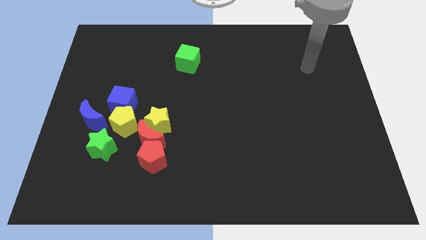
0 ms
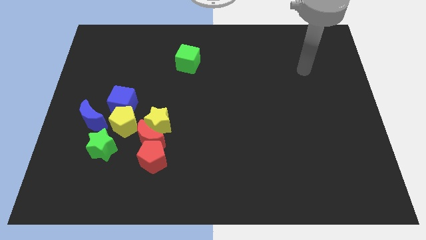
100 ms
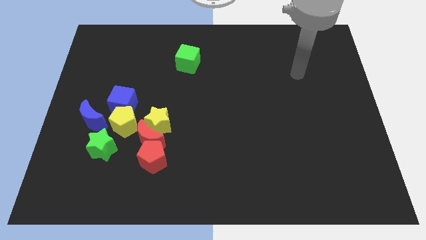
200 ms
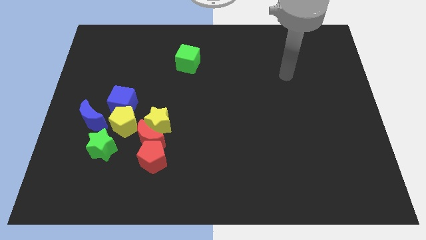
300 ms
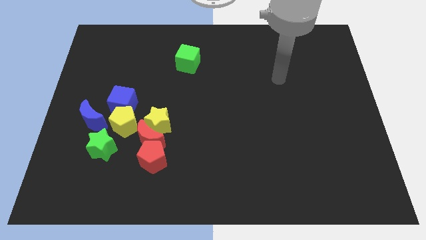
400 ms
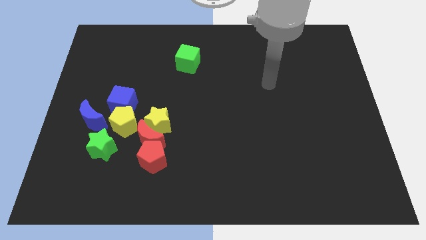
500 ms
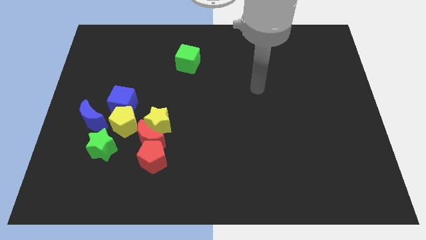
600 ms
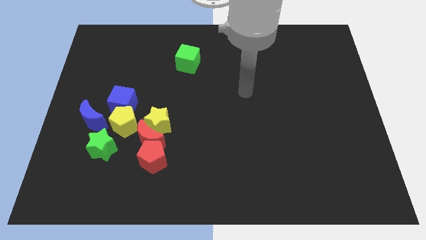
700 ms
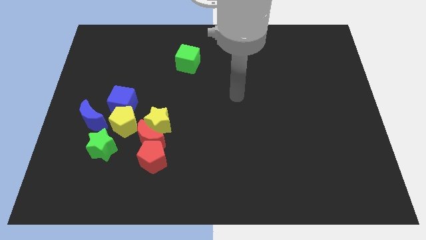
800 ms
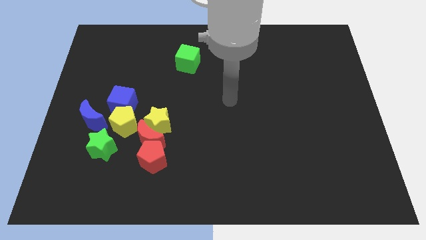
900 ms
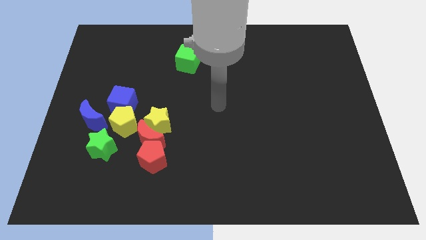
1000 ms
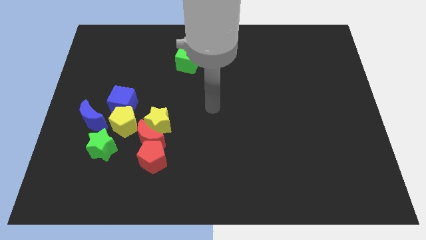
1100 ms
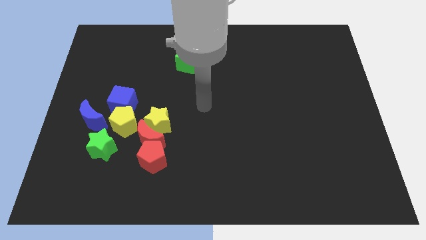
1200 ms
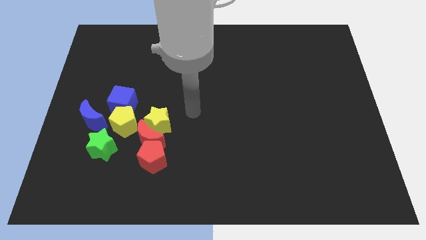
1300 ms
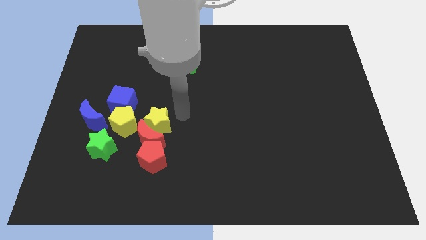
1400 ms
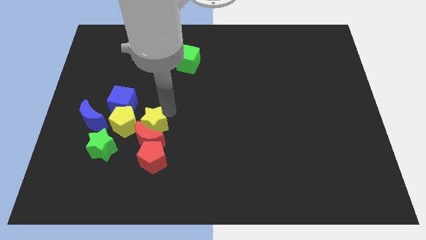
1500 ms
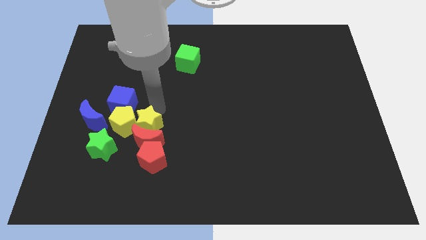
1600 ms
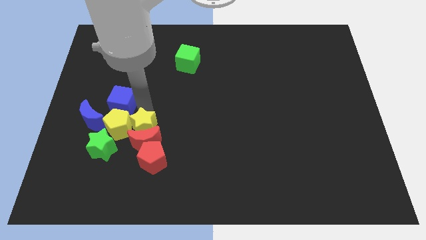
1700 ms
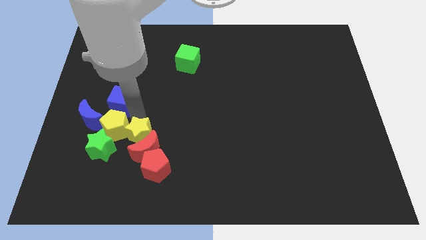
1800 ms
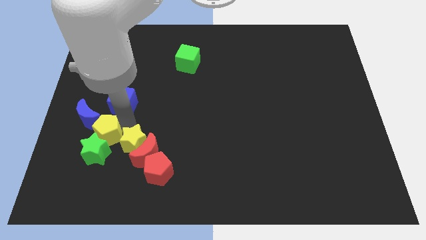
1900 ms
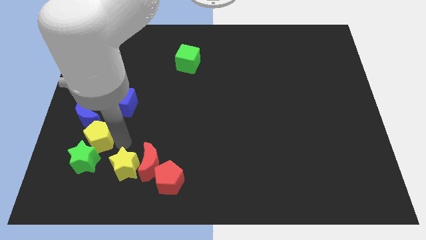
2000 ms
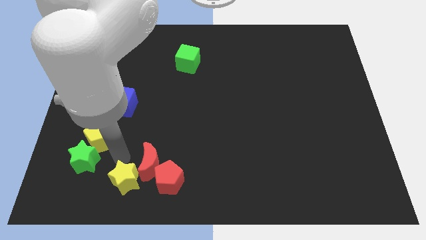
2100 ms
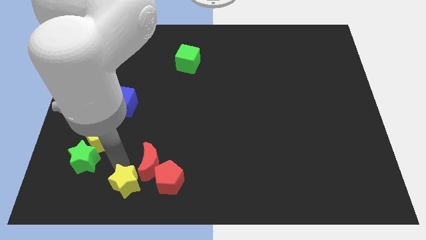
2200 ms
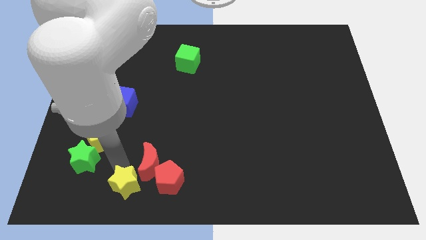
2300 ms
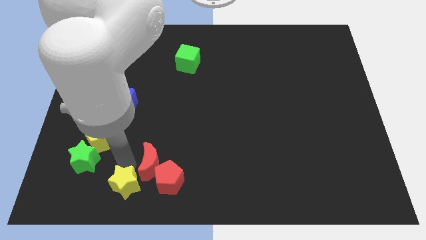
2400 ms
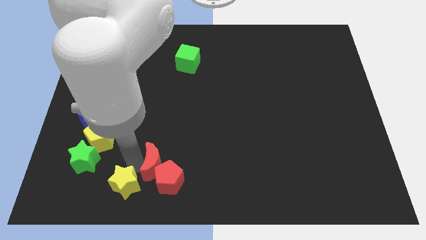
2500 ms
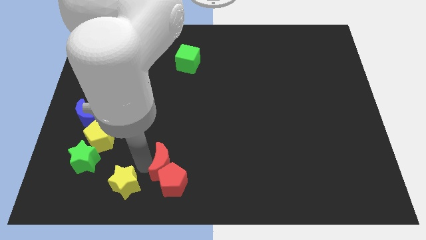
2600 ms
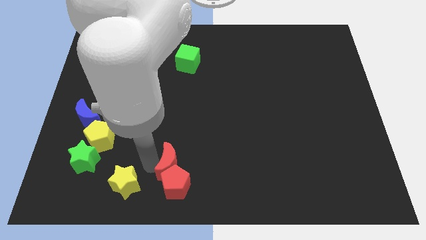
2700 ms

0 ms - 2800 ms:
move the red moon away from the group of blocks

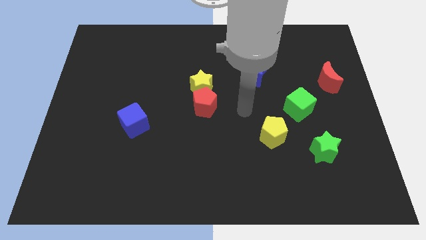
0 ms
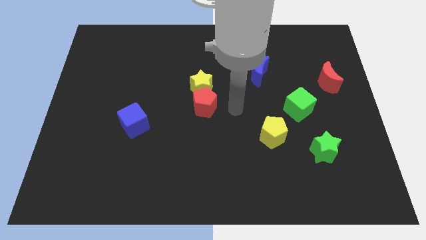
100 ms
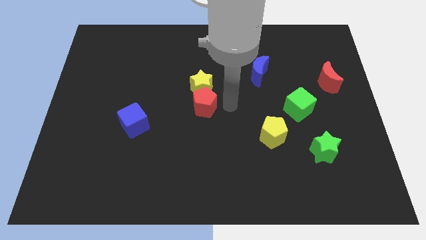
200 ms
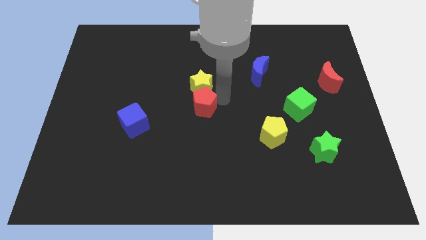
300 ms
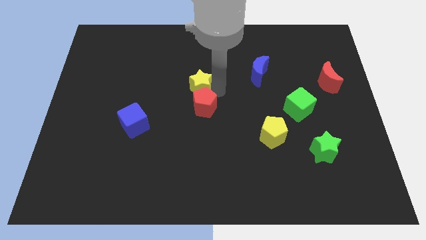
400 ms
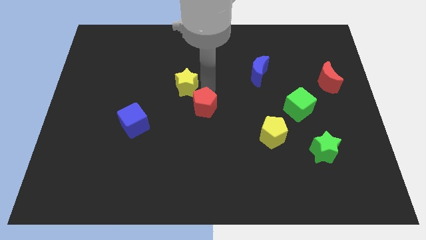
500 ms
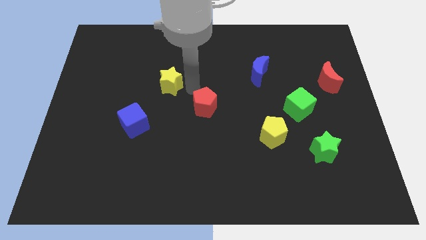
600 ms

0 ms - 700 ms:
pull the red pentagon apart from the yellow star

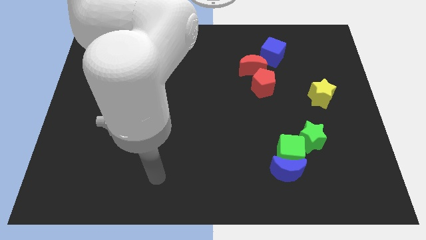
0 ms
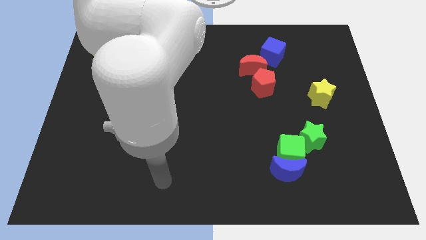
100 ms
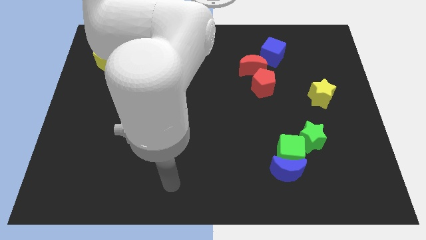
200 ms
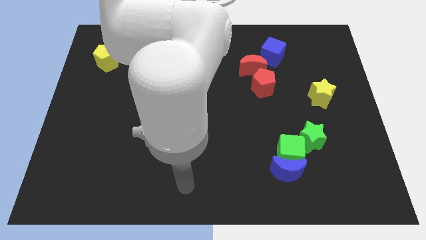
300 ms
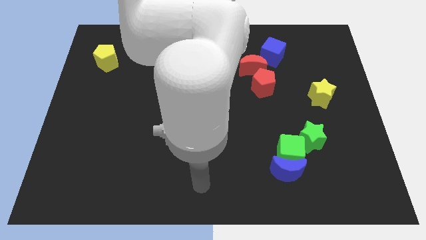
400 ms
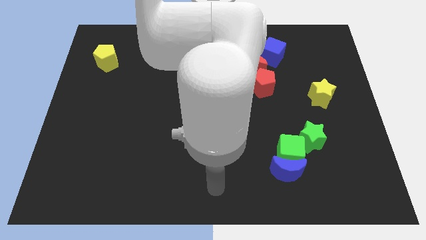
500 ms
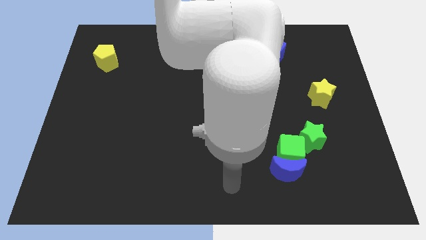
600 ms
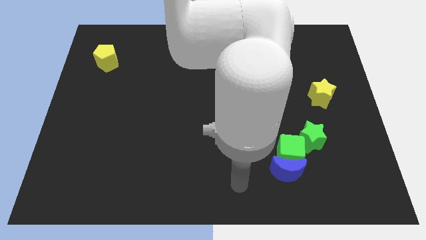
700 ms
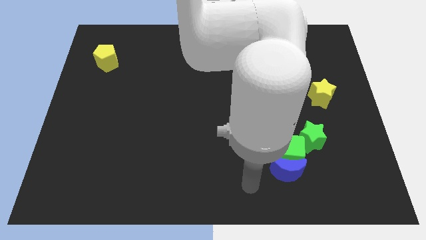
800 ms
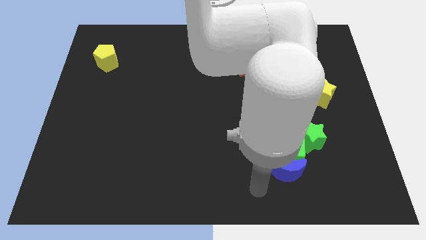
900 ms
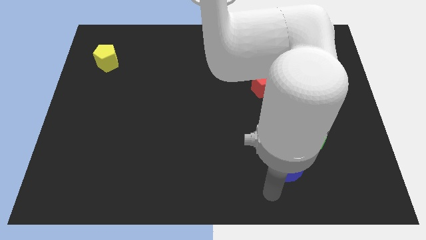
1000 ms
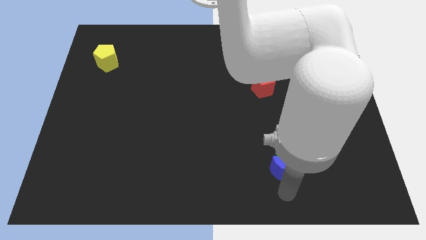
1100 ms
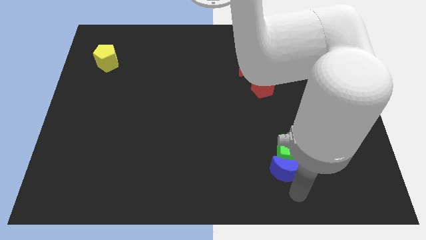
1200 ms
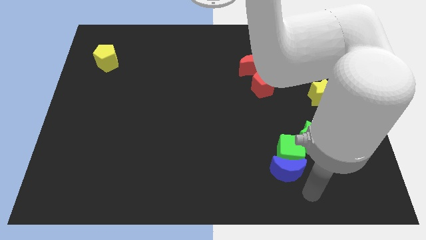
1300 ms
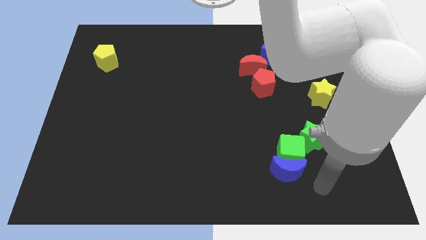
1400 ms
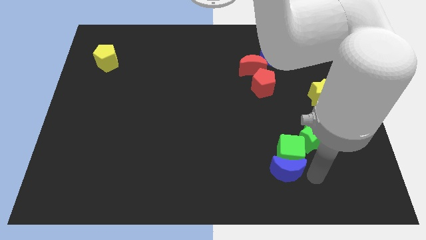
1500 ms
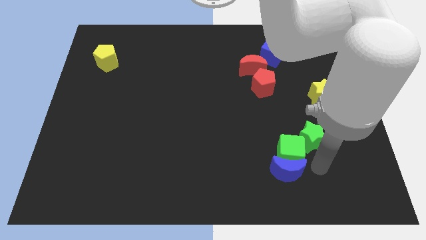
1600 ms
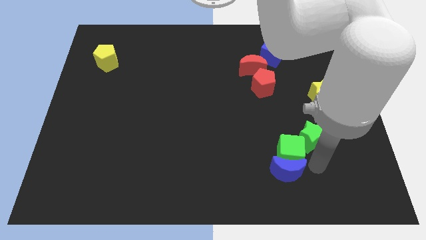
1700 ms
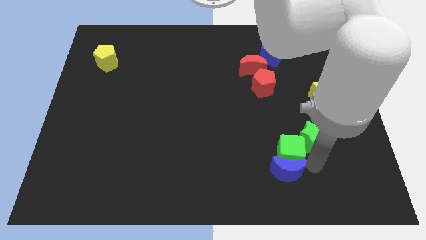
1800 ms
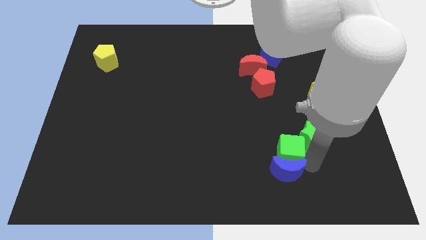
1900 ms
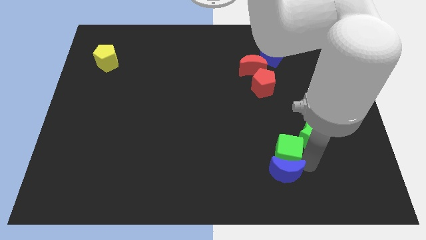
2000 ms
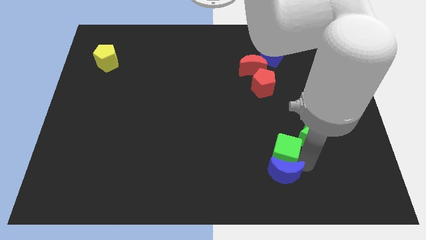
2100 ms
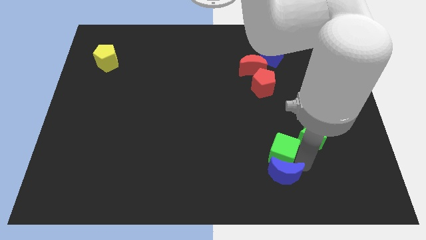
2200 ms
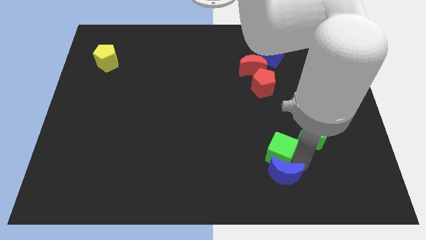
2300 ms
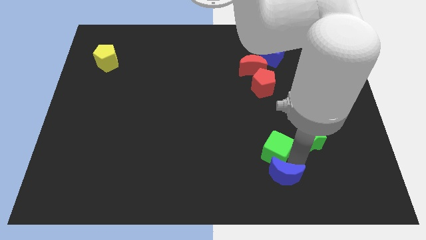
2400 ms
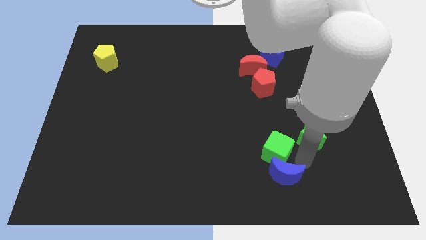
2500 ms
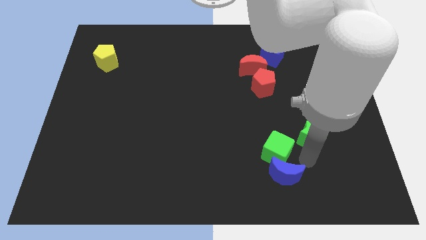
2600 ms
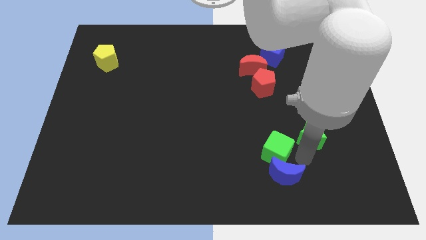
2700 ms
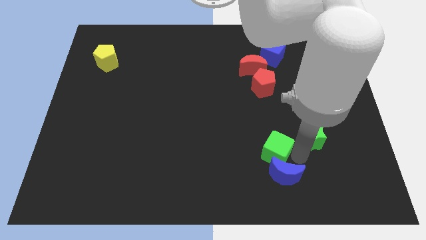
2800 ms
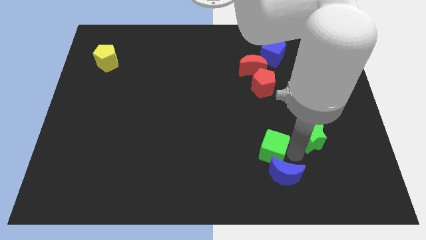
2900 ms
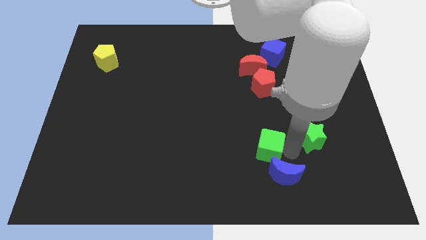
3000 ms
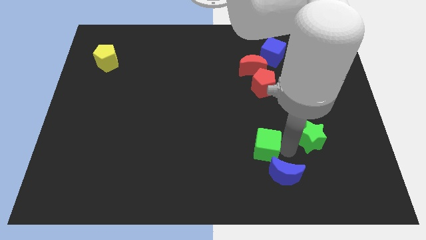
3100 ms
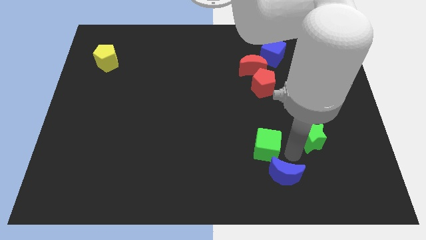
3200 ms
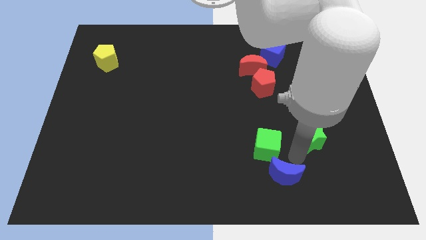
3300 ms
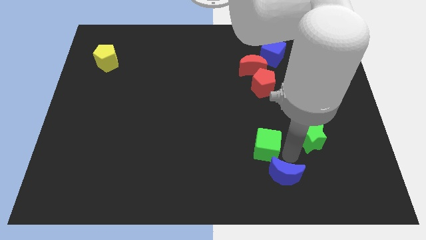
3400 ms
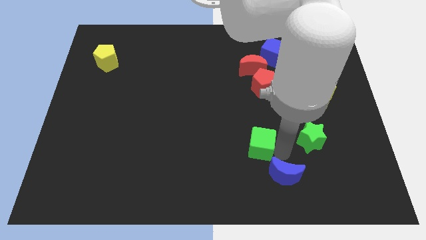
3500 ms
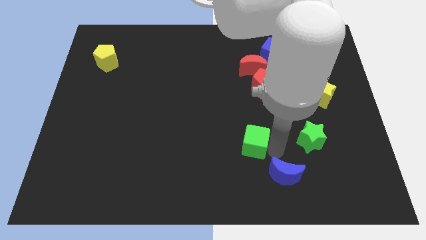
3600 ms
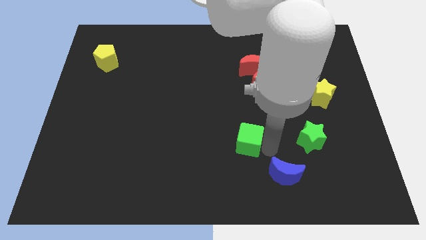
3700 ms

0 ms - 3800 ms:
move the green cube away from the blue moon and green star

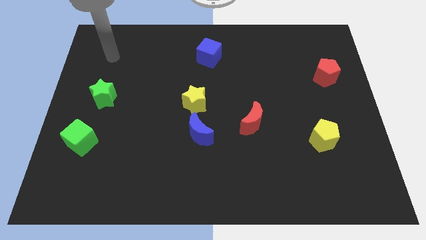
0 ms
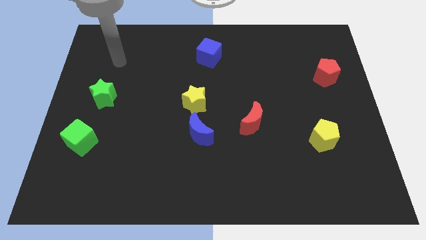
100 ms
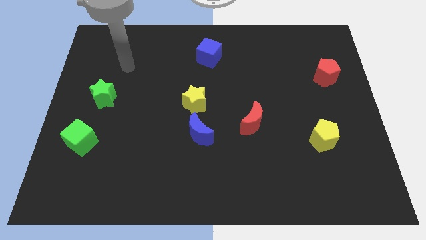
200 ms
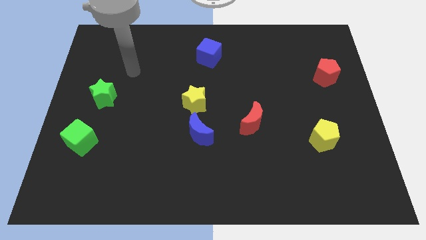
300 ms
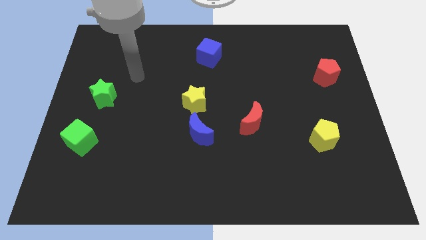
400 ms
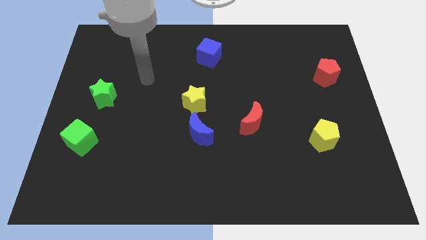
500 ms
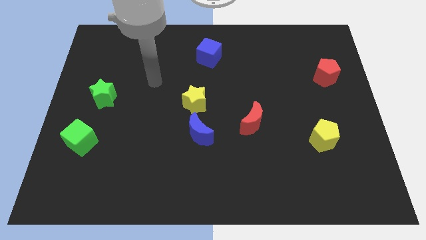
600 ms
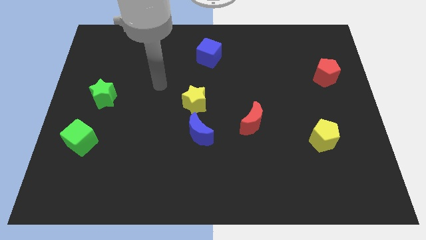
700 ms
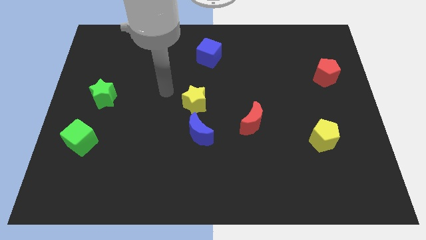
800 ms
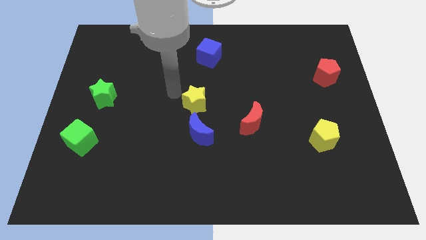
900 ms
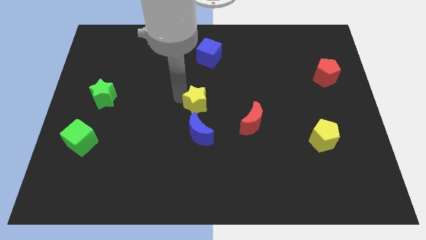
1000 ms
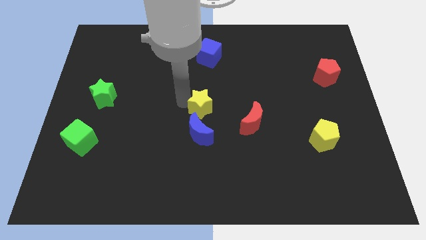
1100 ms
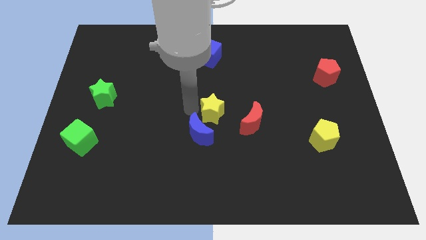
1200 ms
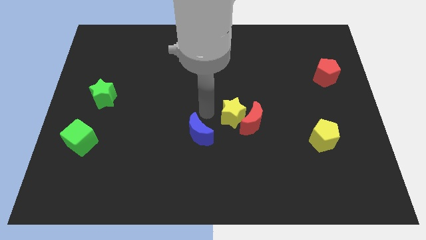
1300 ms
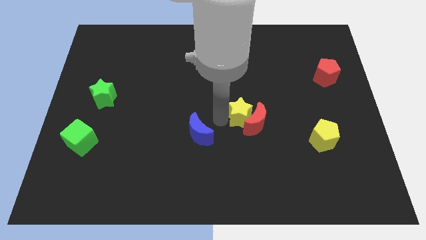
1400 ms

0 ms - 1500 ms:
pull the blue moon apart from the yellow star

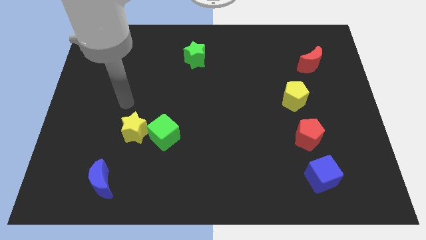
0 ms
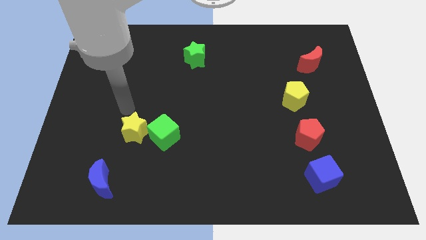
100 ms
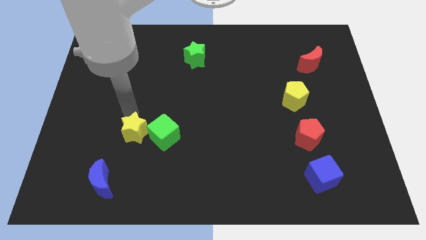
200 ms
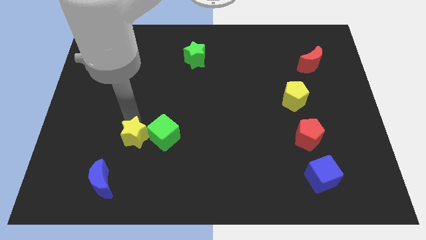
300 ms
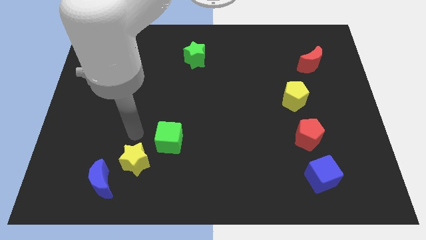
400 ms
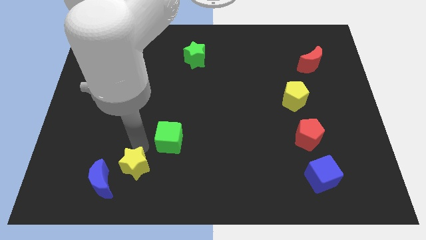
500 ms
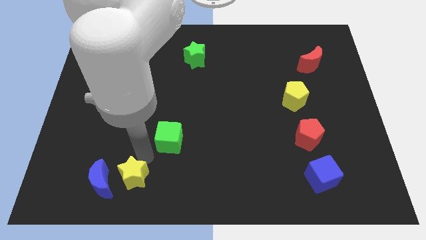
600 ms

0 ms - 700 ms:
pull the green cube apart from the yellow star
